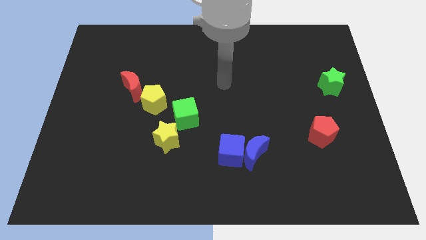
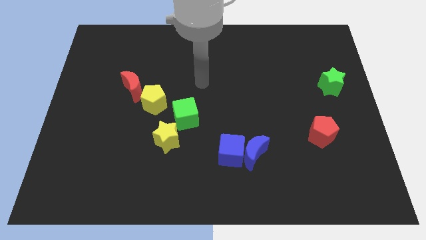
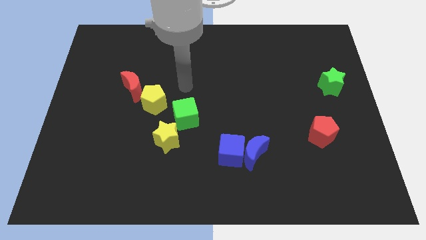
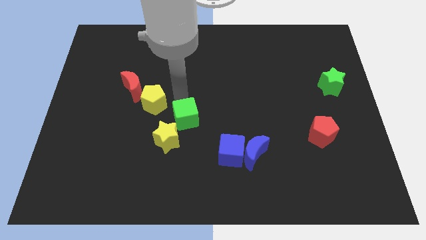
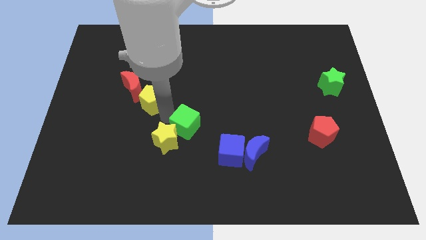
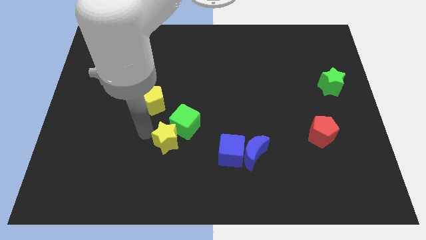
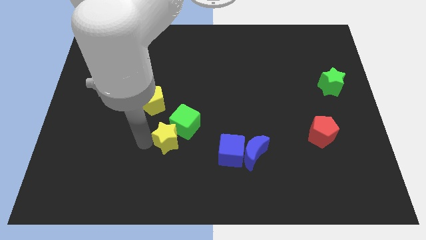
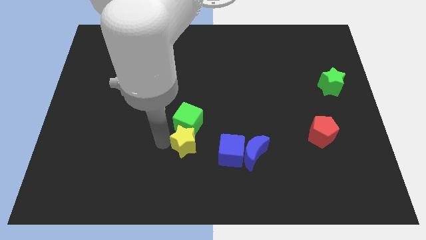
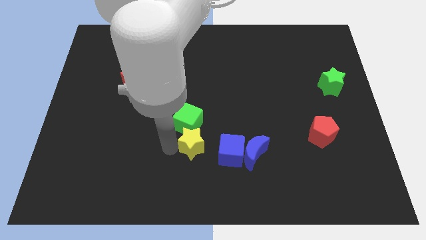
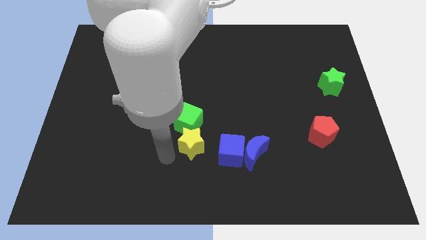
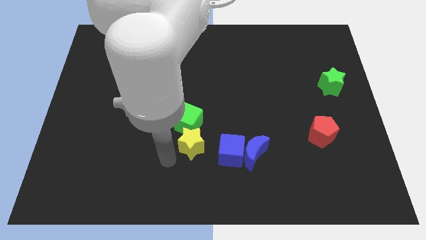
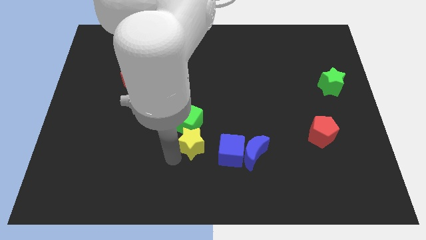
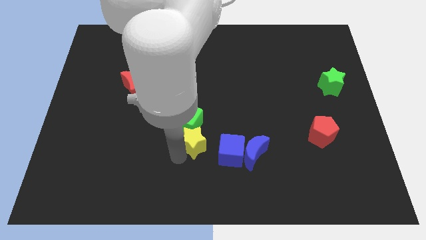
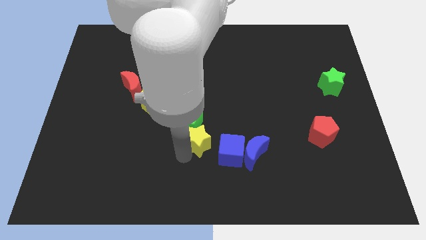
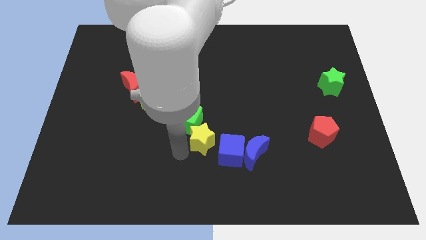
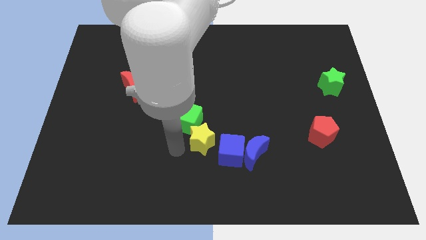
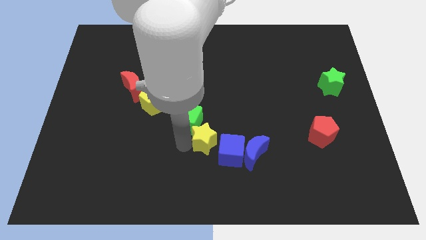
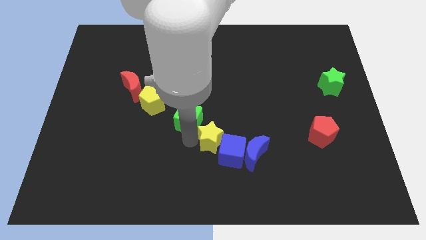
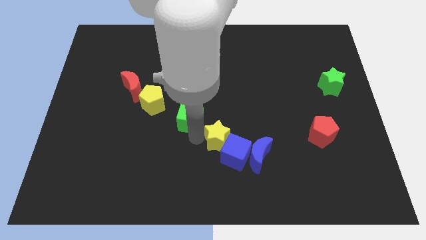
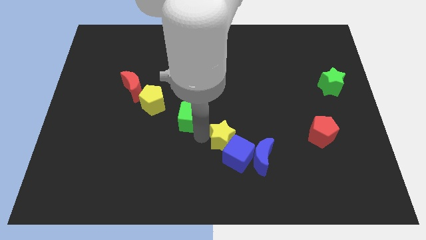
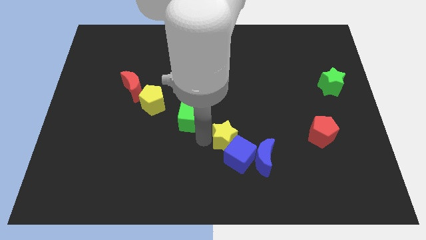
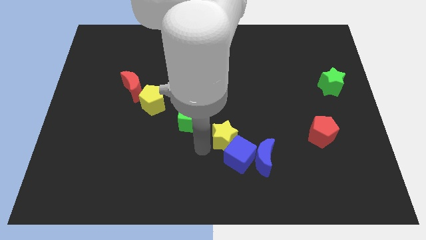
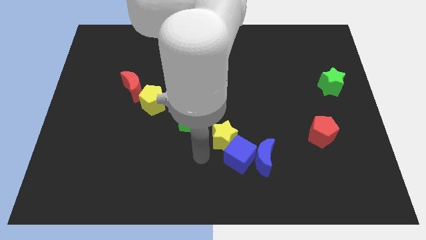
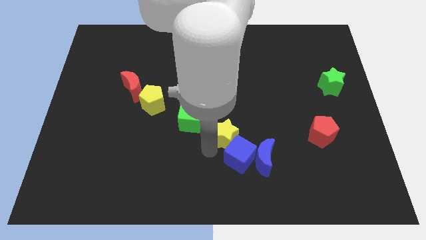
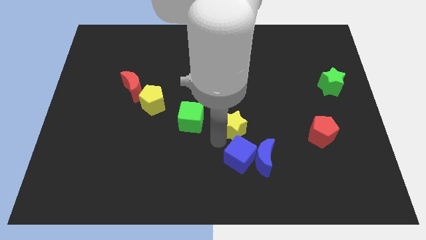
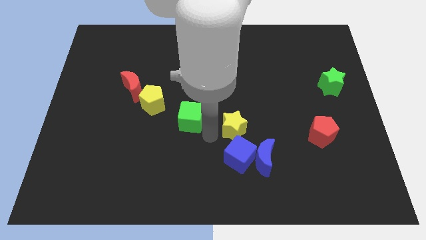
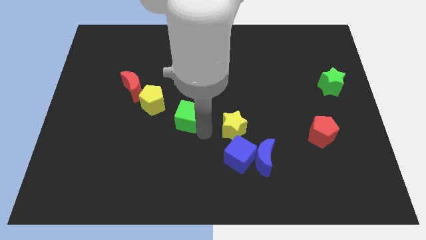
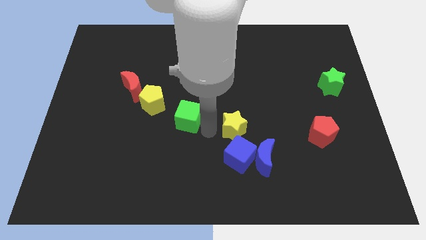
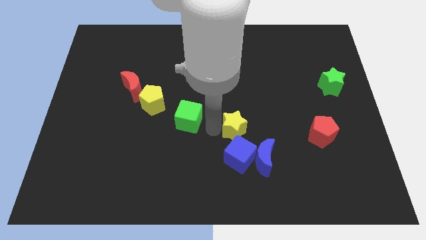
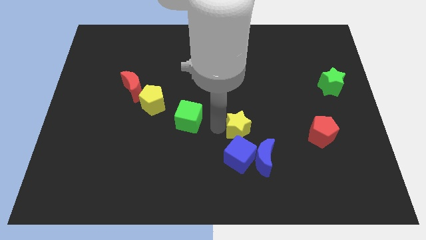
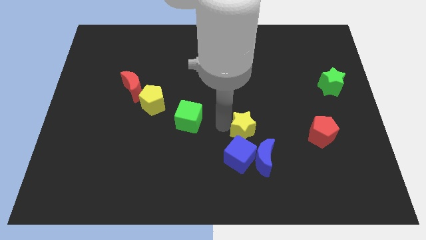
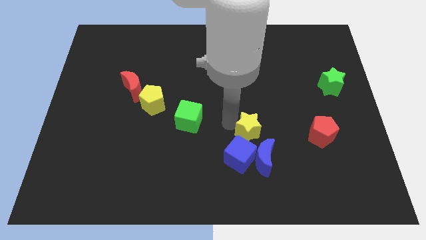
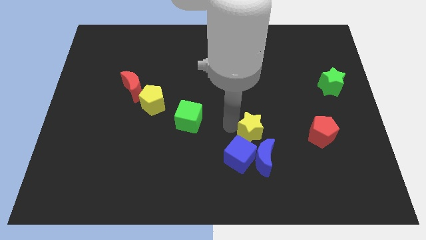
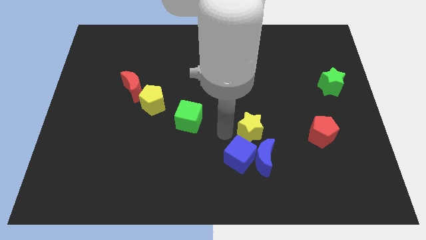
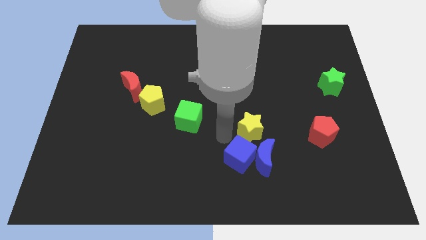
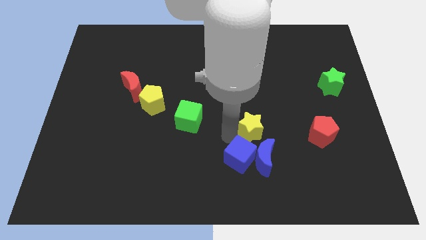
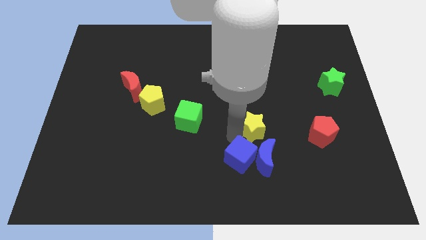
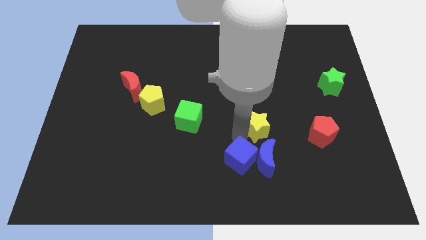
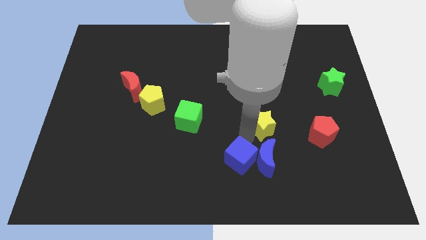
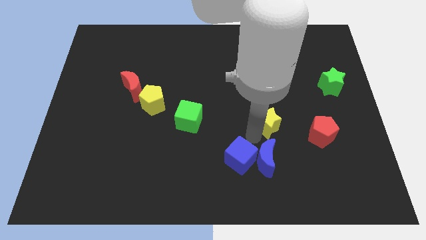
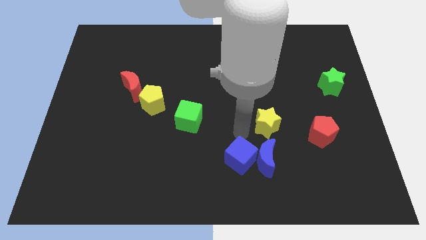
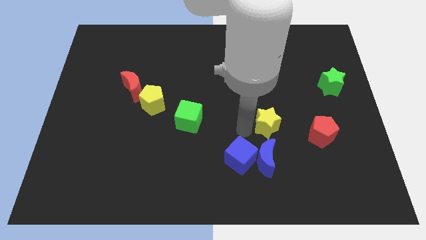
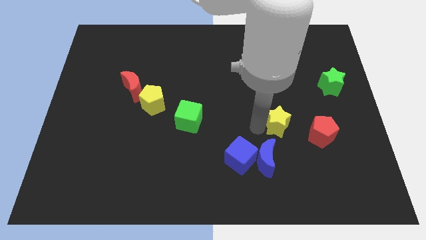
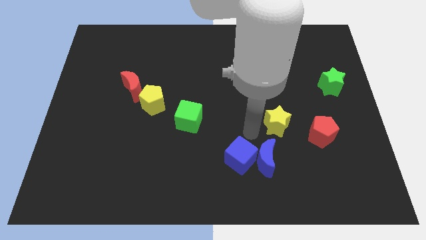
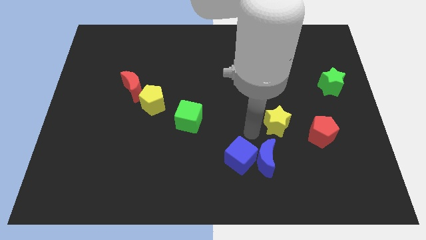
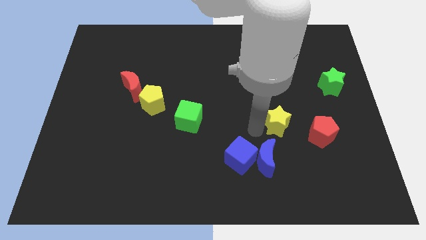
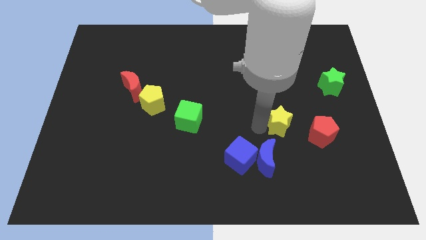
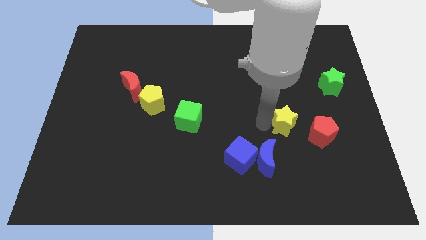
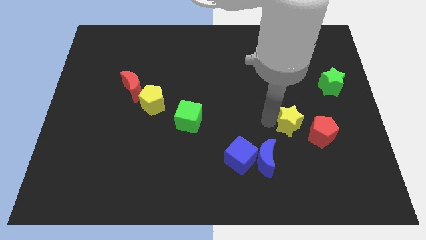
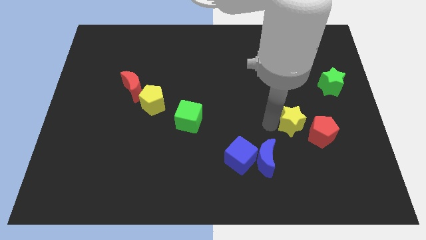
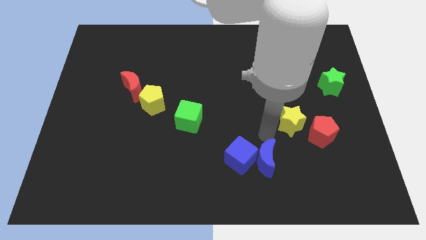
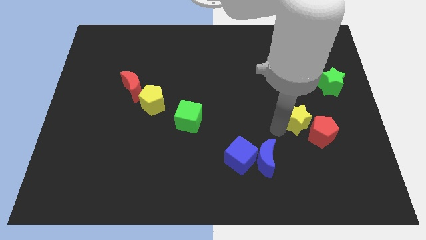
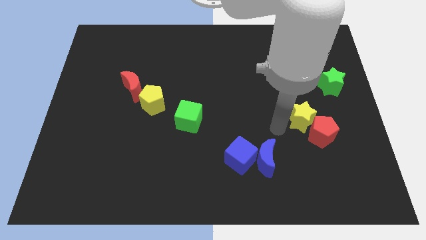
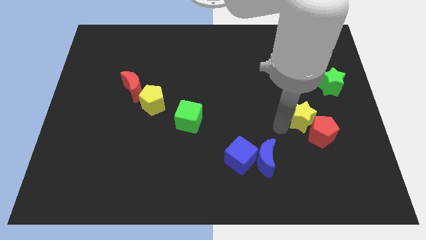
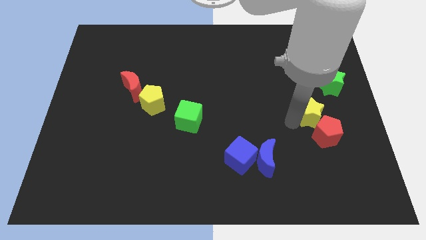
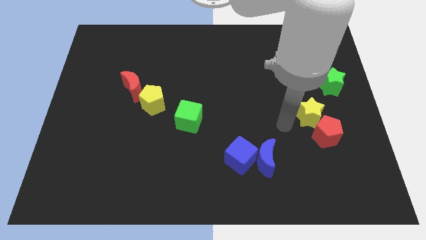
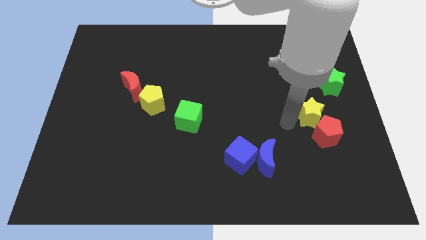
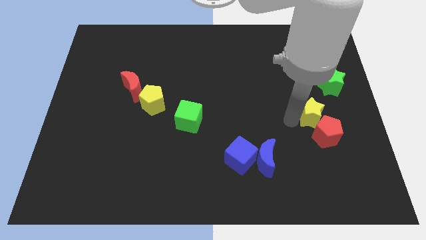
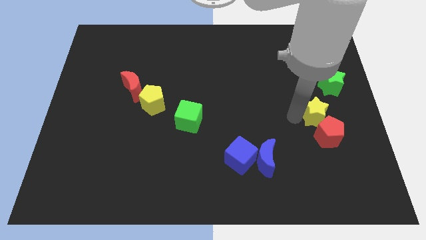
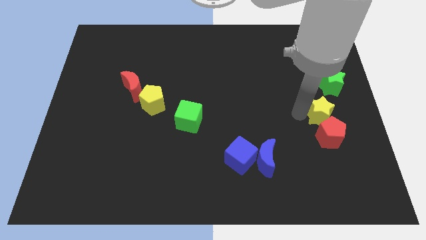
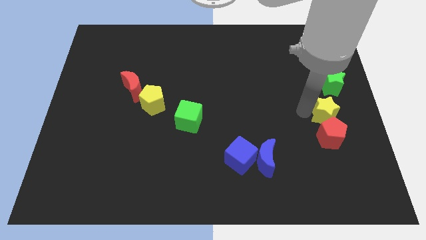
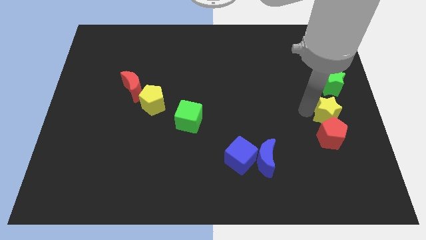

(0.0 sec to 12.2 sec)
slide the yellow star to the right side of the board
